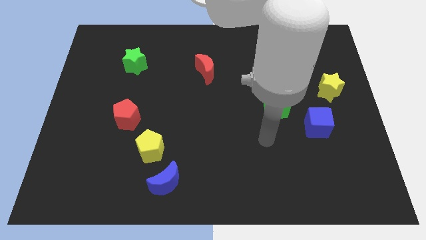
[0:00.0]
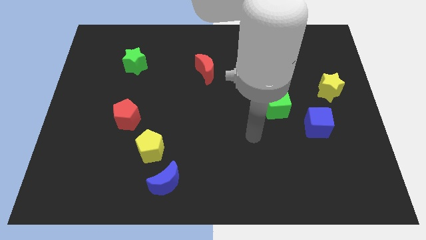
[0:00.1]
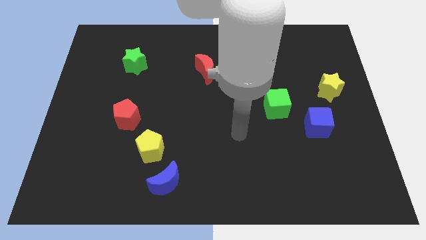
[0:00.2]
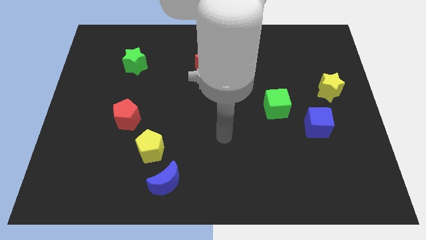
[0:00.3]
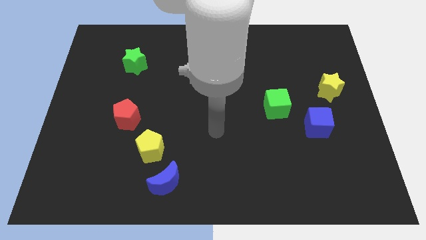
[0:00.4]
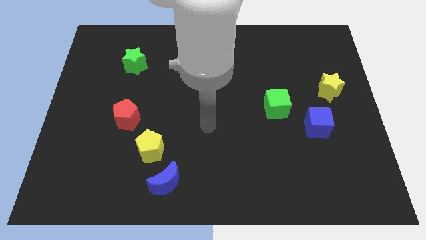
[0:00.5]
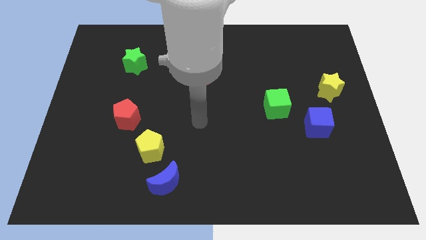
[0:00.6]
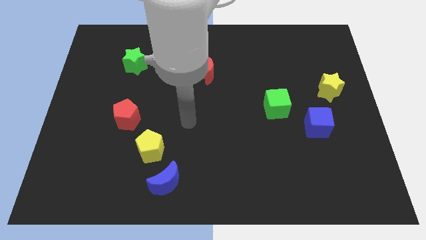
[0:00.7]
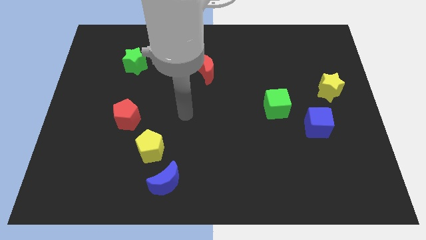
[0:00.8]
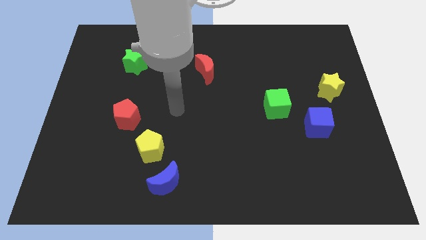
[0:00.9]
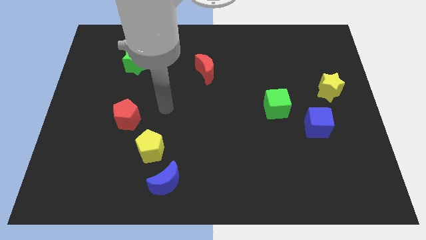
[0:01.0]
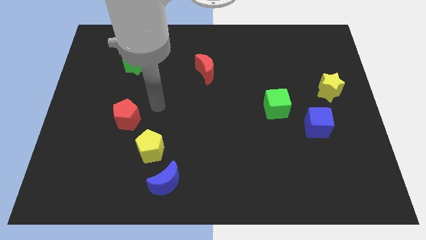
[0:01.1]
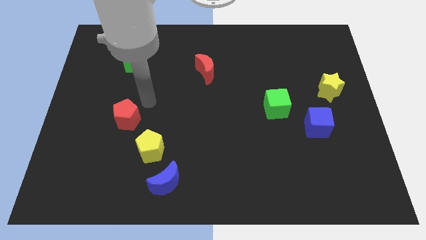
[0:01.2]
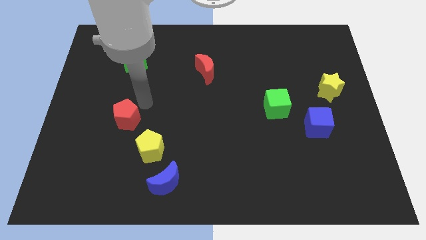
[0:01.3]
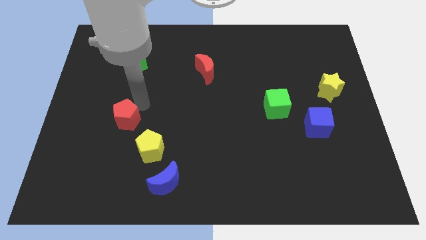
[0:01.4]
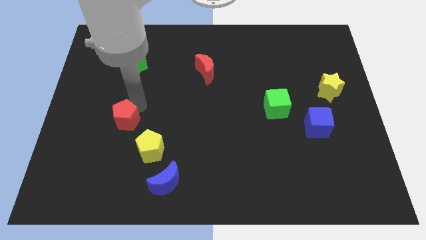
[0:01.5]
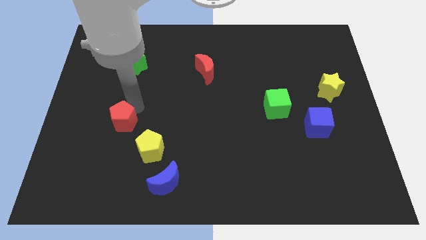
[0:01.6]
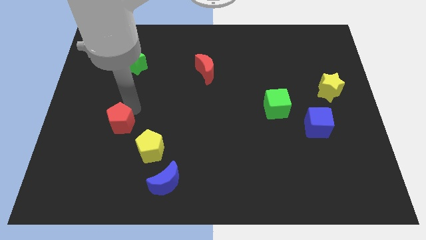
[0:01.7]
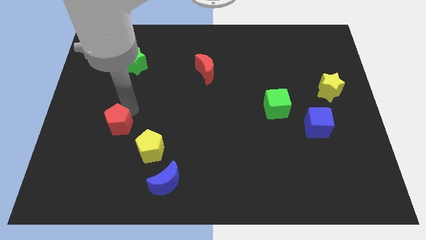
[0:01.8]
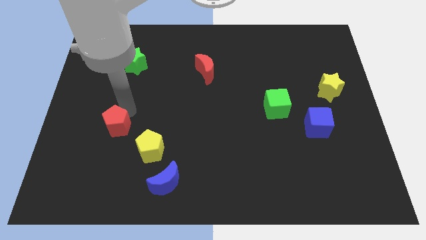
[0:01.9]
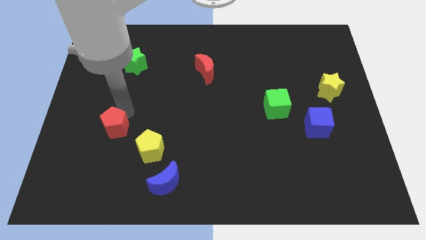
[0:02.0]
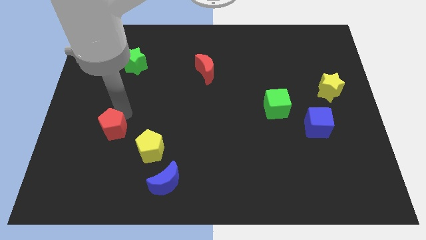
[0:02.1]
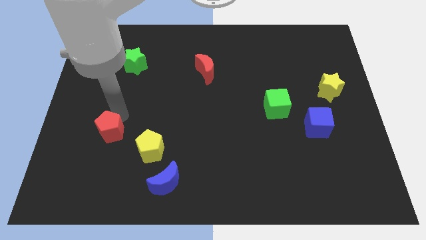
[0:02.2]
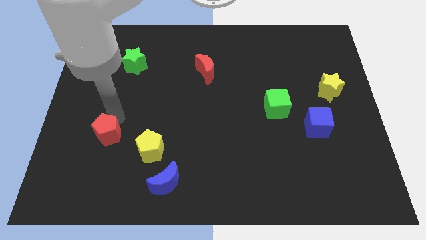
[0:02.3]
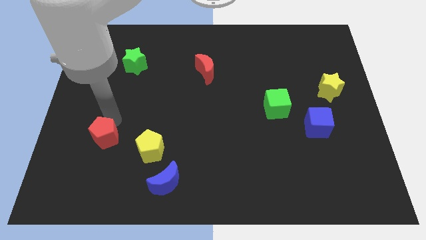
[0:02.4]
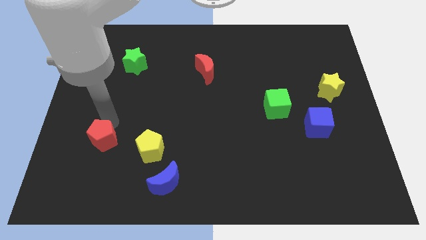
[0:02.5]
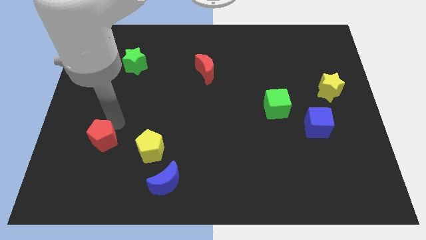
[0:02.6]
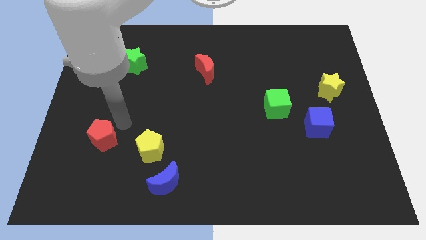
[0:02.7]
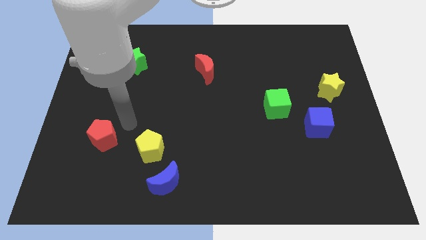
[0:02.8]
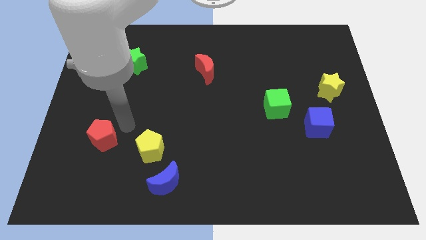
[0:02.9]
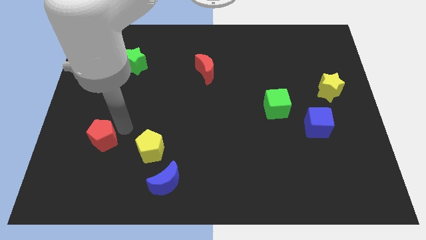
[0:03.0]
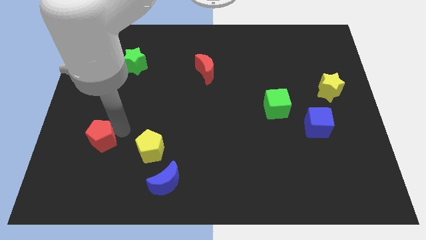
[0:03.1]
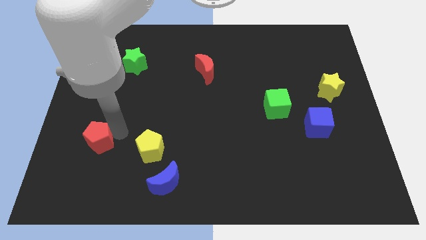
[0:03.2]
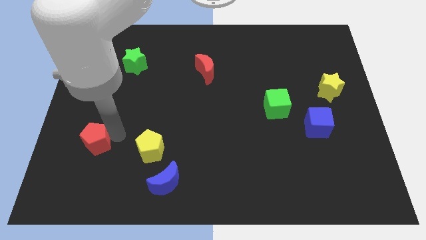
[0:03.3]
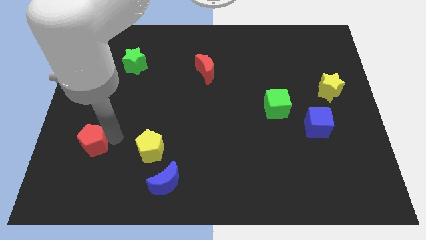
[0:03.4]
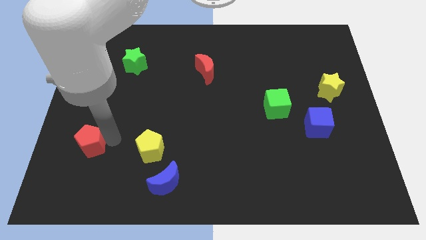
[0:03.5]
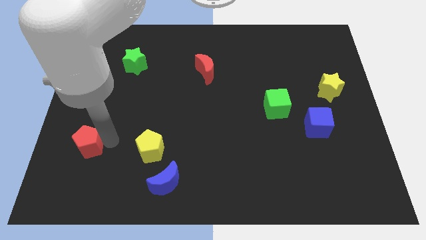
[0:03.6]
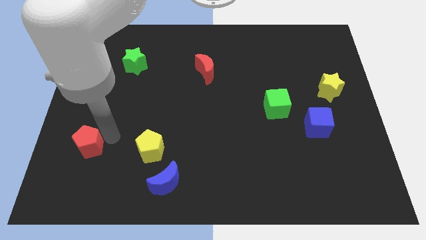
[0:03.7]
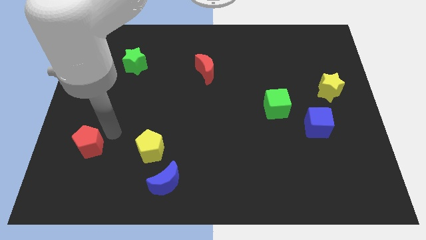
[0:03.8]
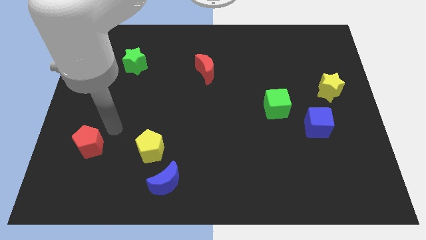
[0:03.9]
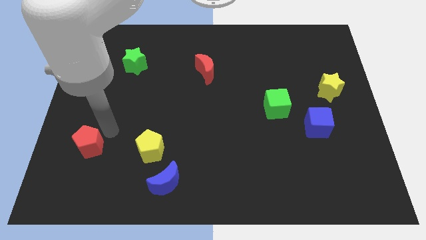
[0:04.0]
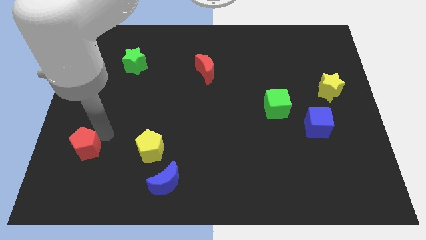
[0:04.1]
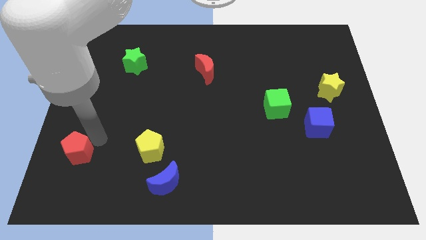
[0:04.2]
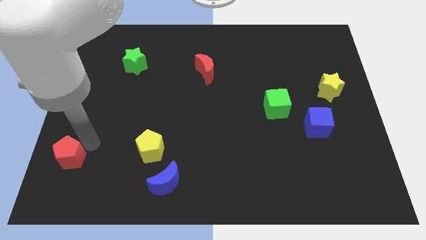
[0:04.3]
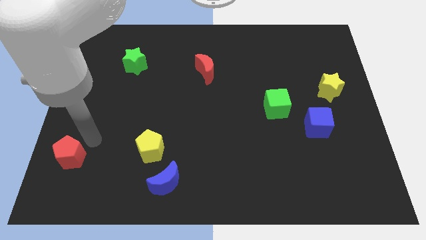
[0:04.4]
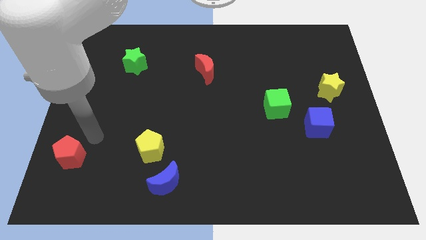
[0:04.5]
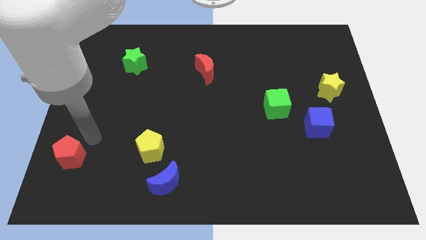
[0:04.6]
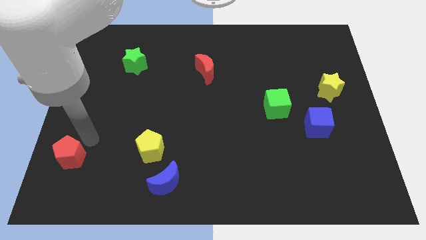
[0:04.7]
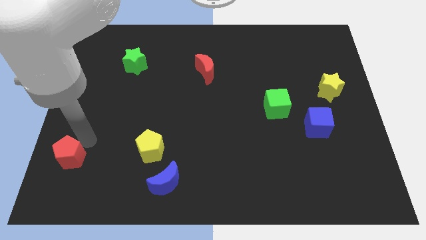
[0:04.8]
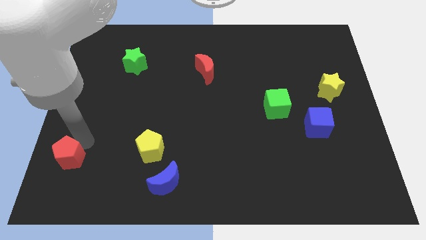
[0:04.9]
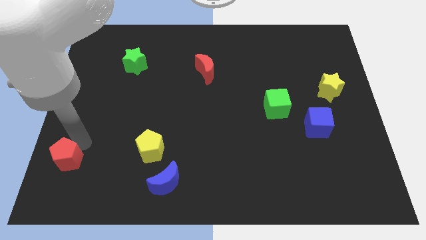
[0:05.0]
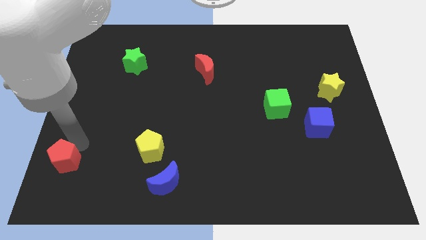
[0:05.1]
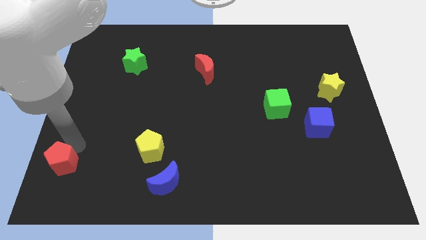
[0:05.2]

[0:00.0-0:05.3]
put the red pentagon to the bottom left of the board

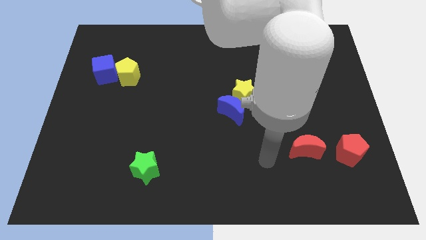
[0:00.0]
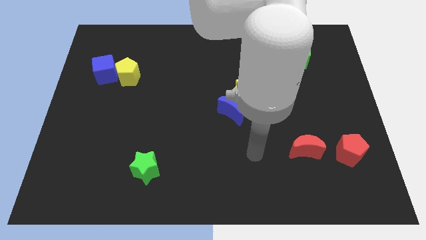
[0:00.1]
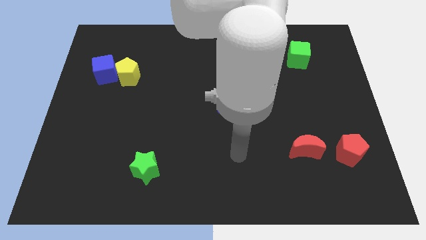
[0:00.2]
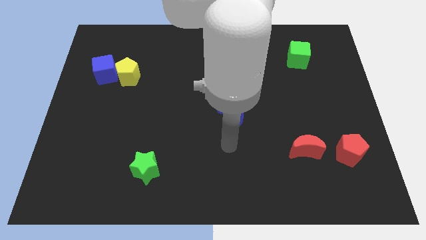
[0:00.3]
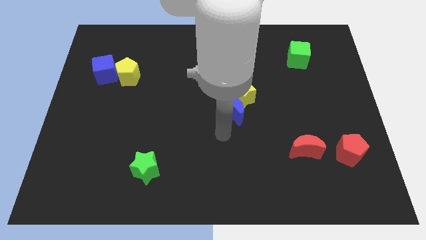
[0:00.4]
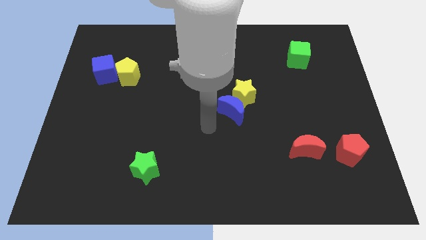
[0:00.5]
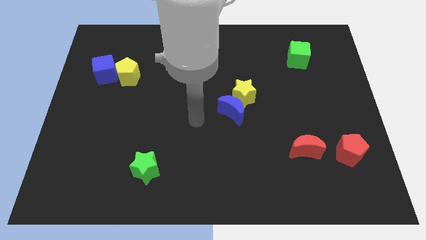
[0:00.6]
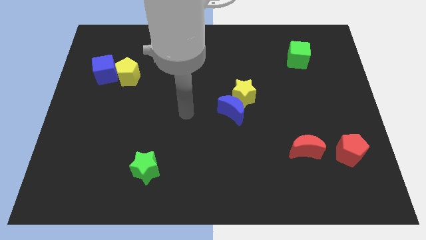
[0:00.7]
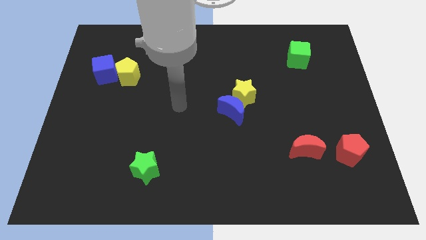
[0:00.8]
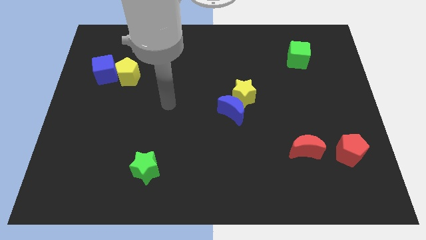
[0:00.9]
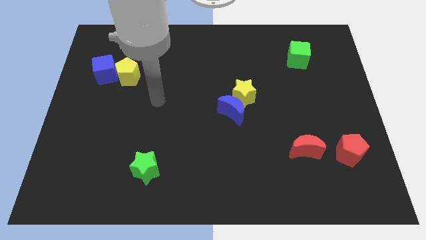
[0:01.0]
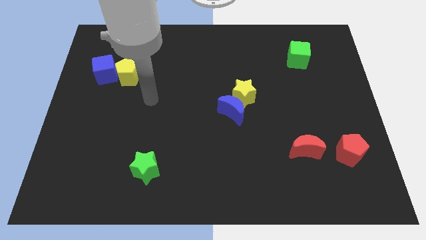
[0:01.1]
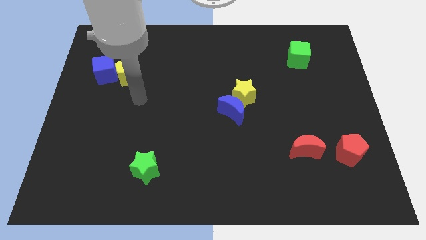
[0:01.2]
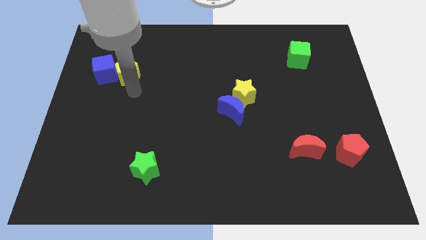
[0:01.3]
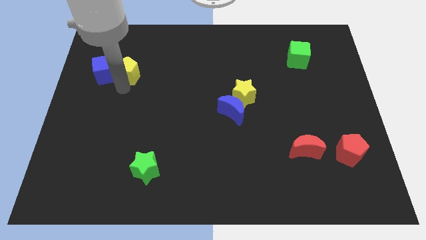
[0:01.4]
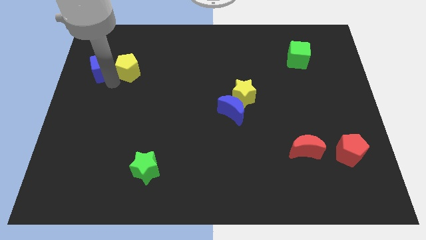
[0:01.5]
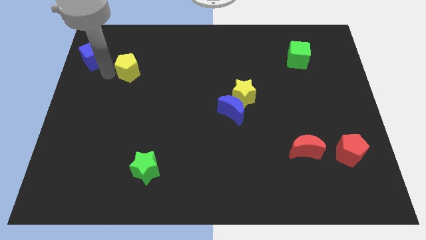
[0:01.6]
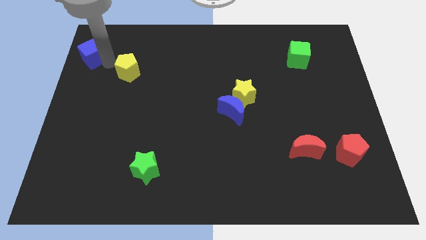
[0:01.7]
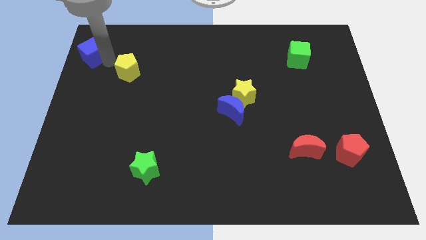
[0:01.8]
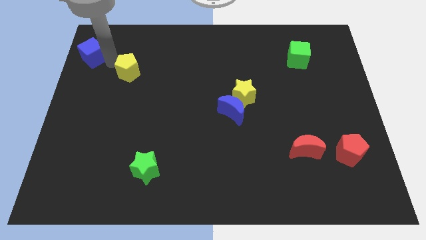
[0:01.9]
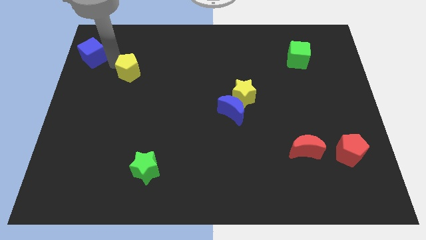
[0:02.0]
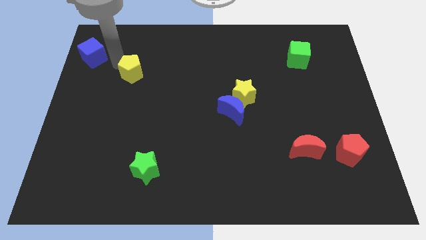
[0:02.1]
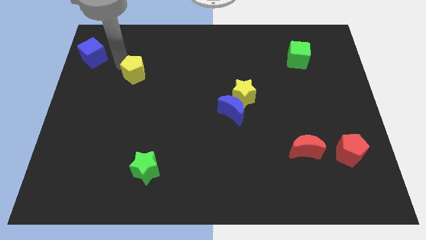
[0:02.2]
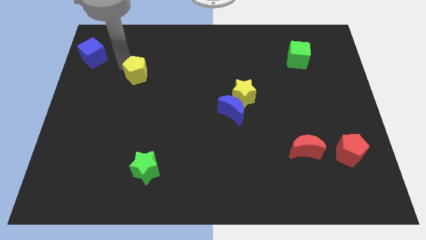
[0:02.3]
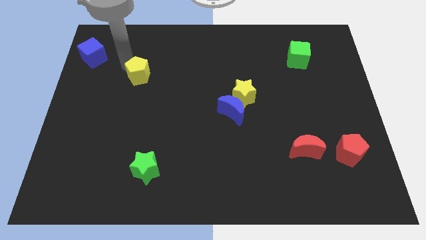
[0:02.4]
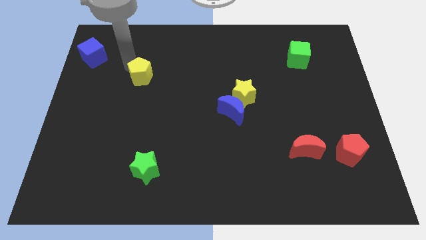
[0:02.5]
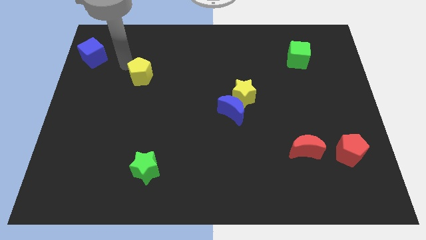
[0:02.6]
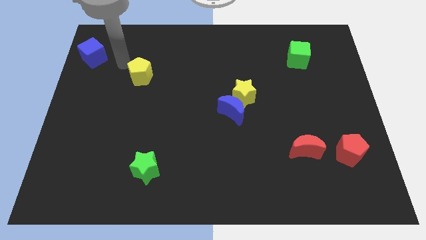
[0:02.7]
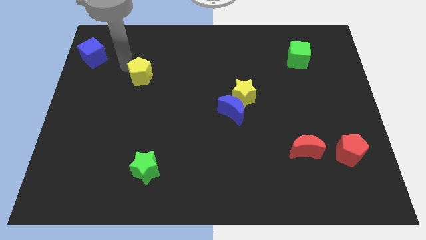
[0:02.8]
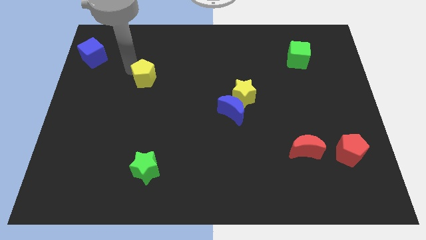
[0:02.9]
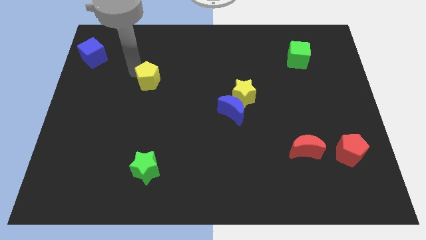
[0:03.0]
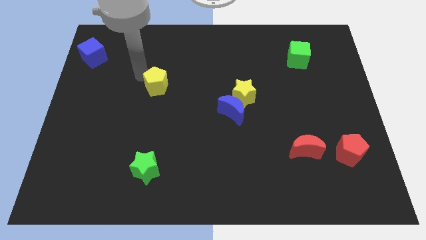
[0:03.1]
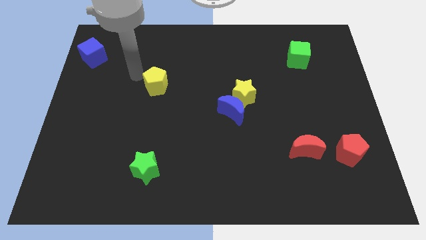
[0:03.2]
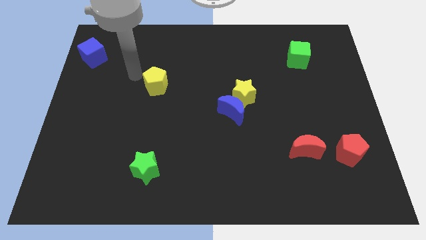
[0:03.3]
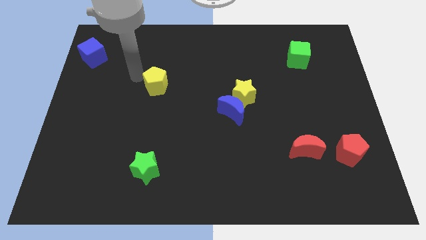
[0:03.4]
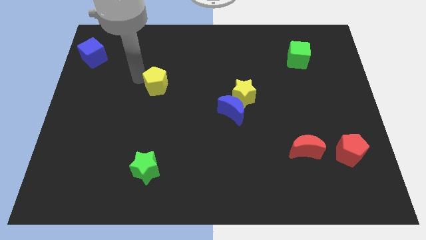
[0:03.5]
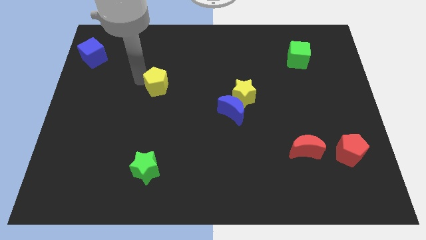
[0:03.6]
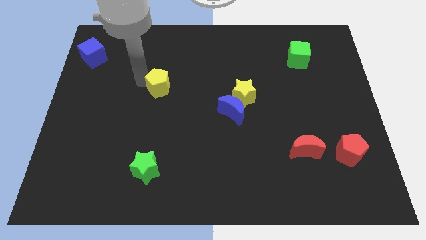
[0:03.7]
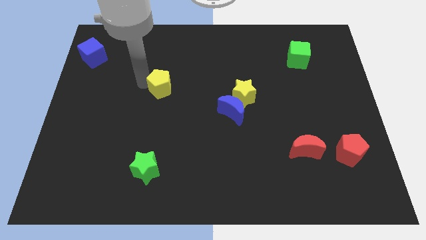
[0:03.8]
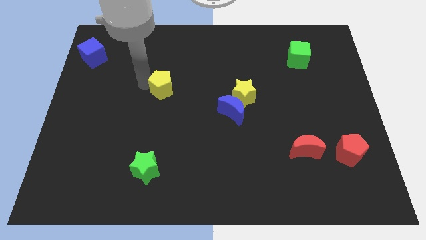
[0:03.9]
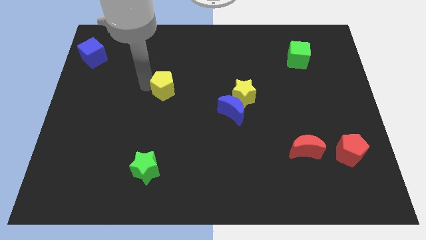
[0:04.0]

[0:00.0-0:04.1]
put the yellow pentagon to the center of the board
